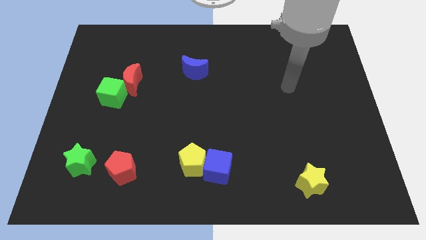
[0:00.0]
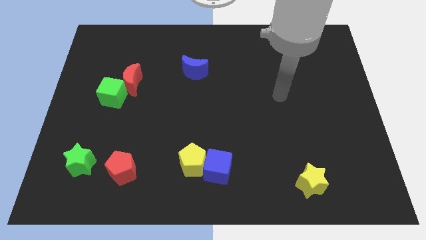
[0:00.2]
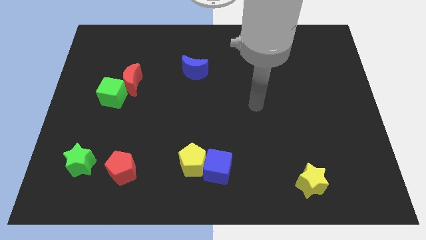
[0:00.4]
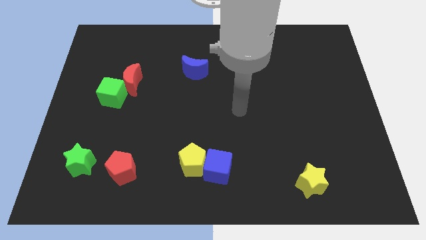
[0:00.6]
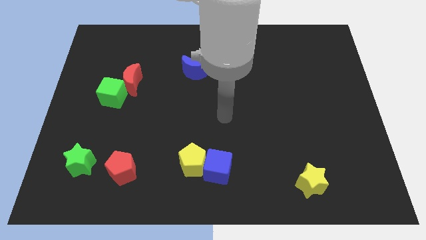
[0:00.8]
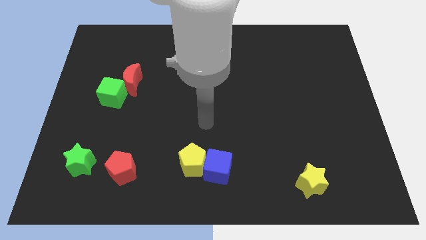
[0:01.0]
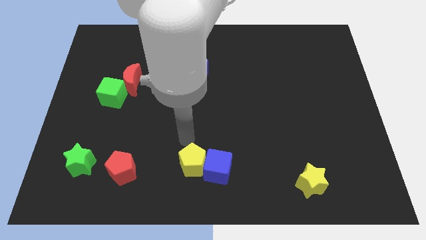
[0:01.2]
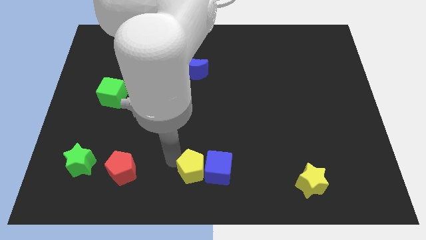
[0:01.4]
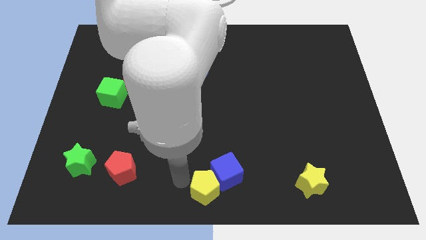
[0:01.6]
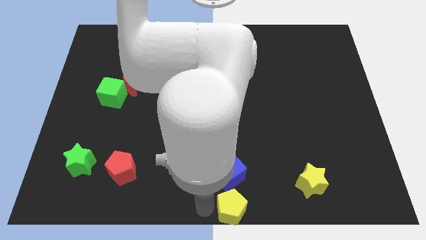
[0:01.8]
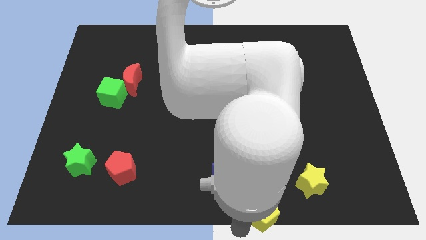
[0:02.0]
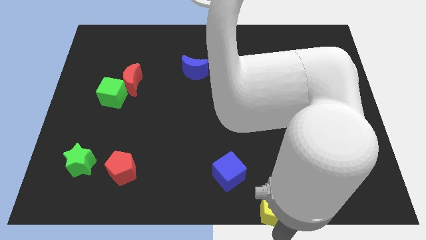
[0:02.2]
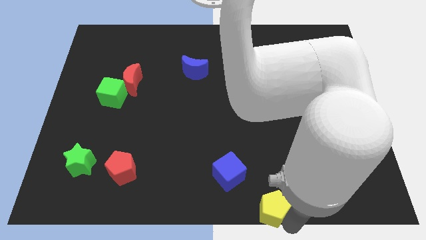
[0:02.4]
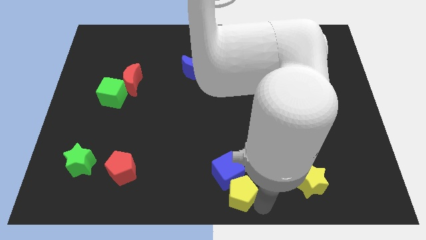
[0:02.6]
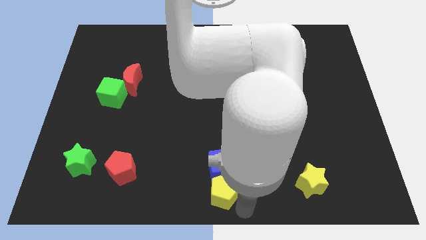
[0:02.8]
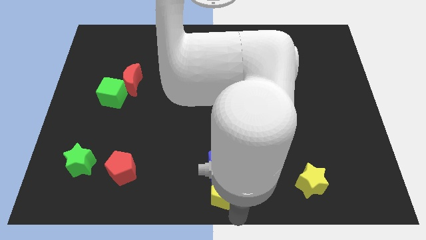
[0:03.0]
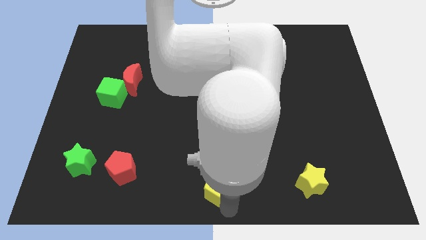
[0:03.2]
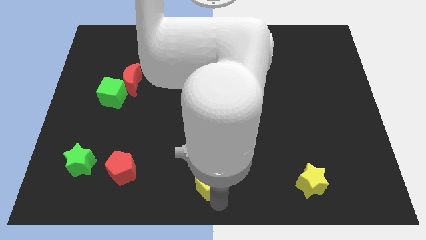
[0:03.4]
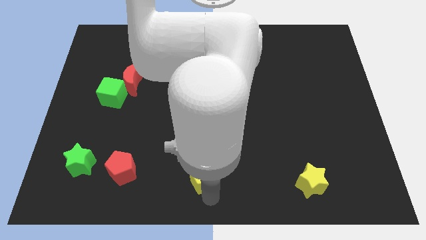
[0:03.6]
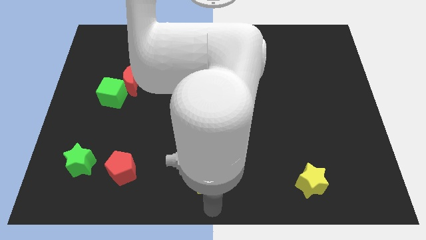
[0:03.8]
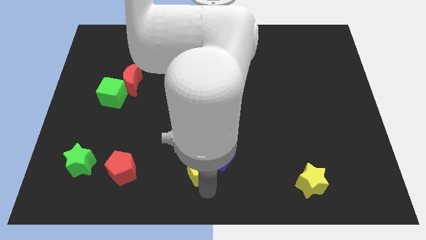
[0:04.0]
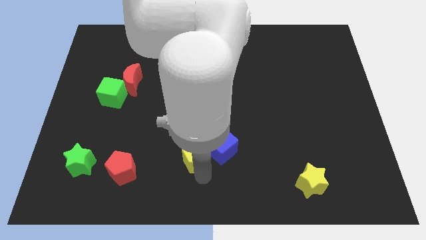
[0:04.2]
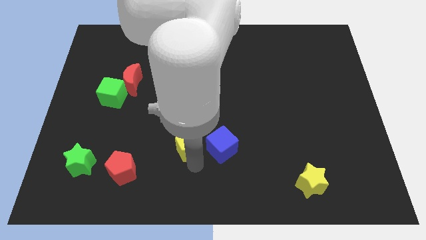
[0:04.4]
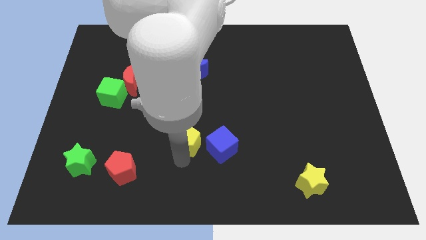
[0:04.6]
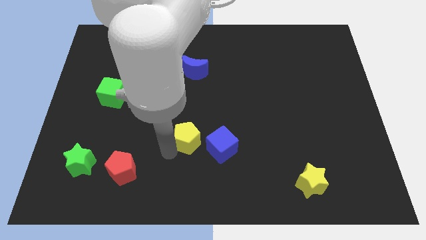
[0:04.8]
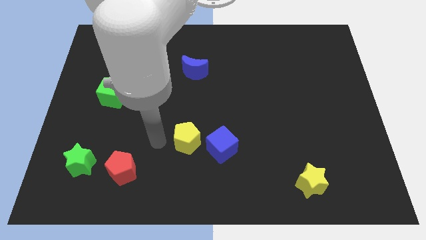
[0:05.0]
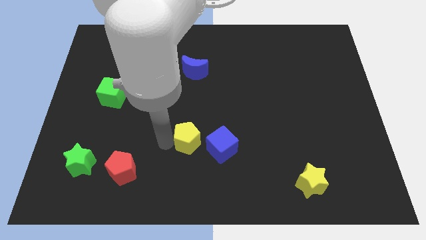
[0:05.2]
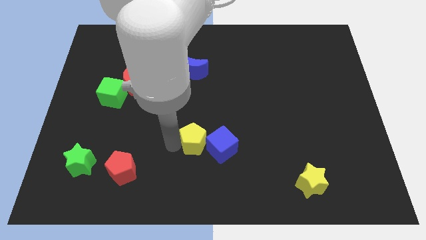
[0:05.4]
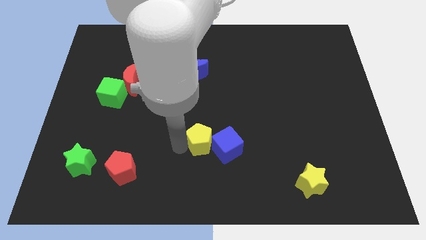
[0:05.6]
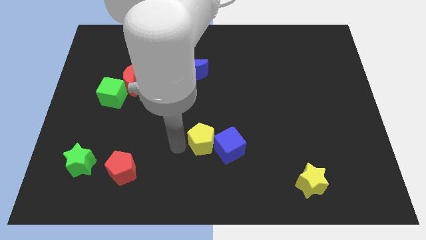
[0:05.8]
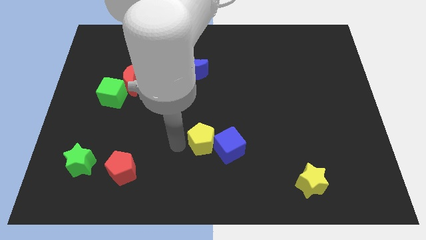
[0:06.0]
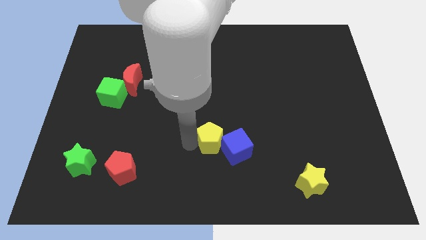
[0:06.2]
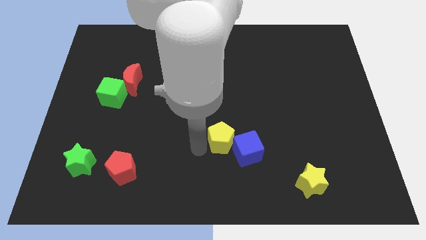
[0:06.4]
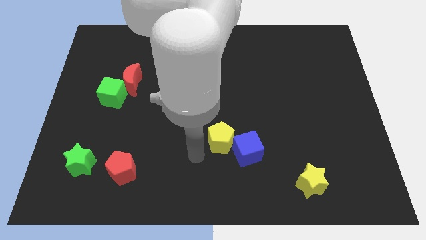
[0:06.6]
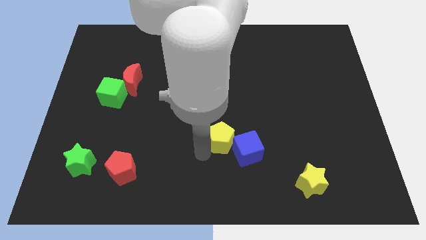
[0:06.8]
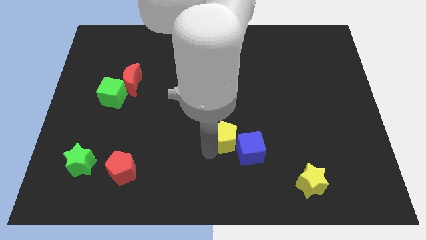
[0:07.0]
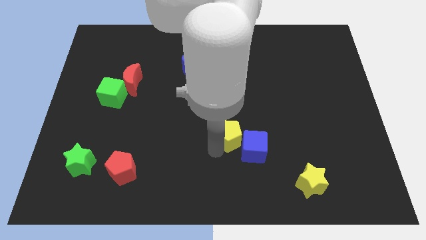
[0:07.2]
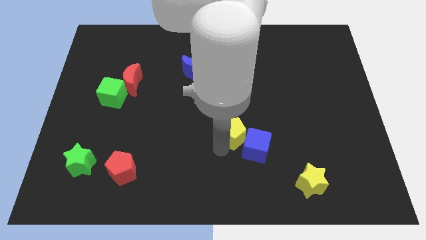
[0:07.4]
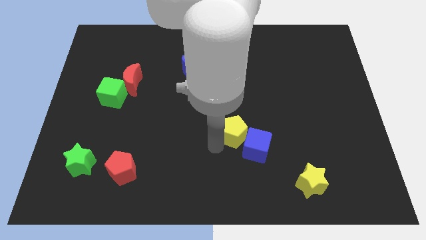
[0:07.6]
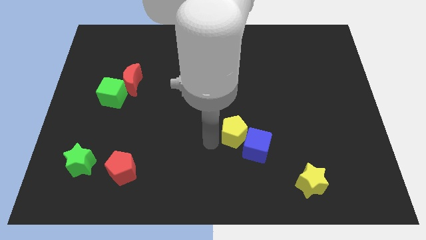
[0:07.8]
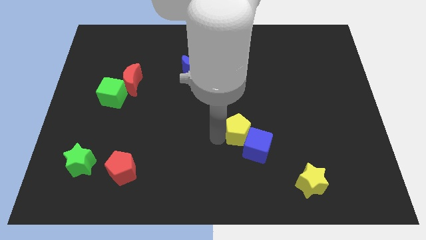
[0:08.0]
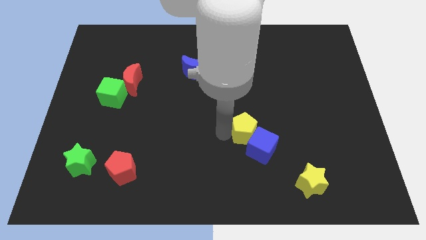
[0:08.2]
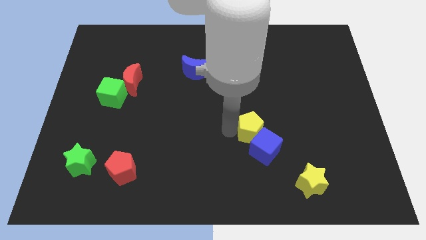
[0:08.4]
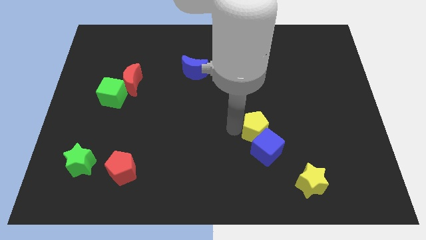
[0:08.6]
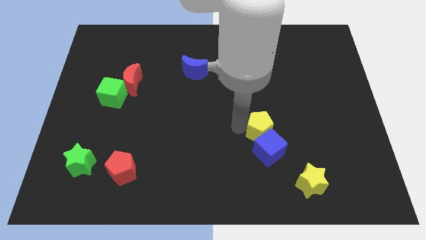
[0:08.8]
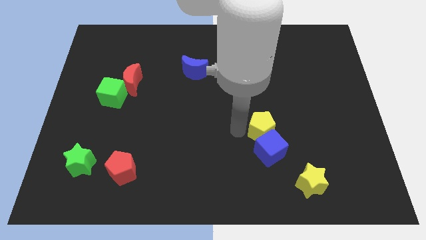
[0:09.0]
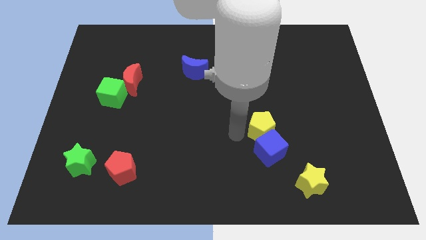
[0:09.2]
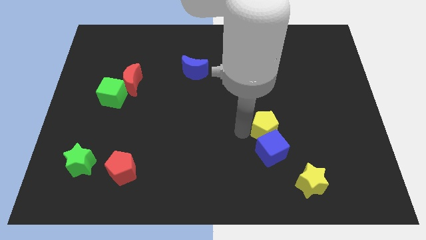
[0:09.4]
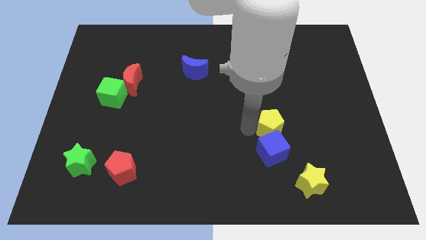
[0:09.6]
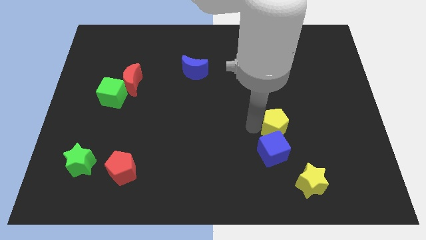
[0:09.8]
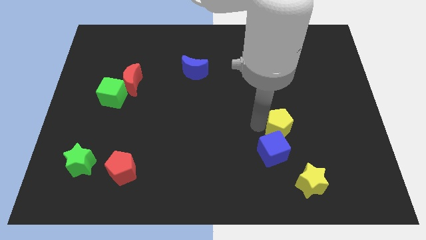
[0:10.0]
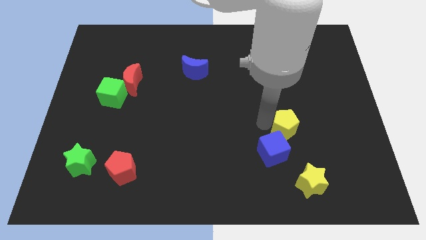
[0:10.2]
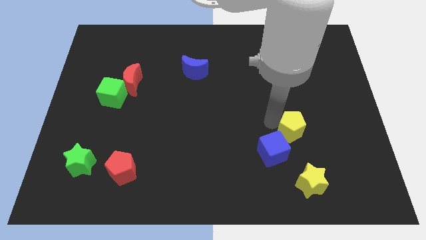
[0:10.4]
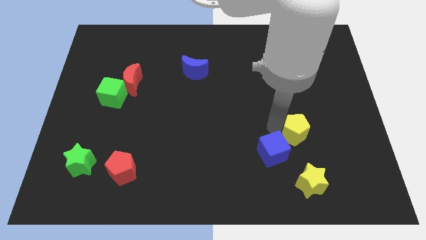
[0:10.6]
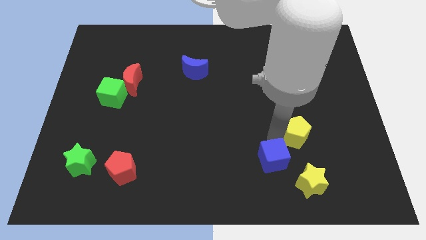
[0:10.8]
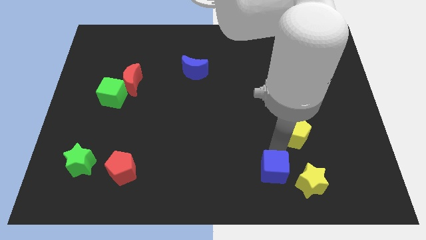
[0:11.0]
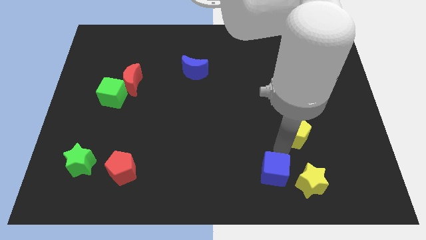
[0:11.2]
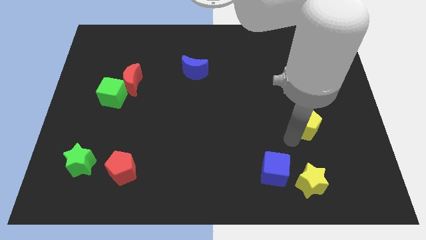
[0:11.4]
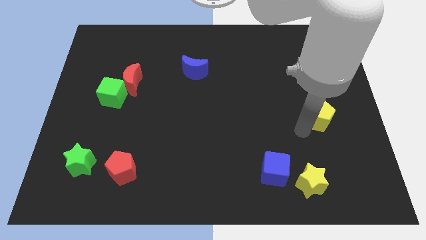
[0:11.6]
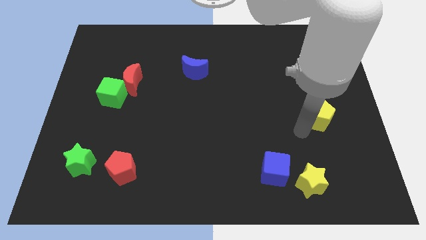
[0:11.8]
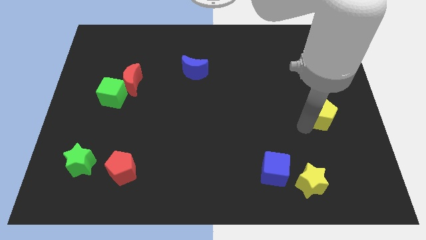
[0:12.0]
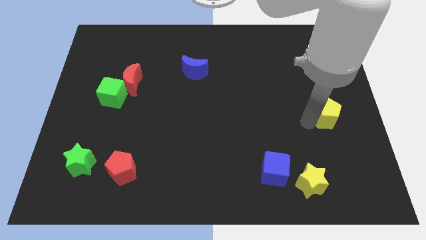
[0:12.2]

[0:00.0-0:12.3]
push the yellow pentagon to the center right

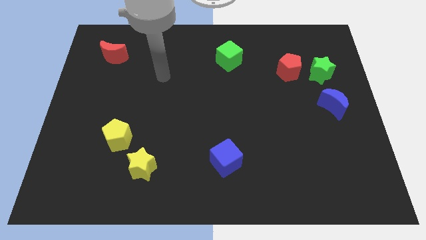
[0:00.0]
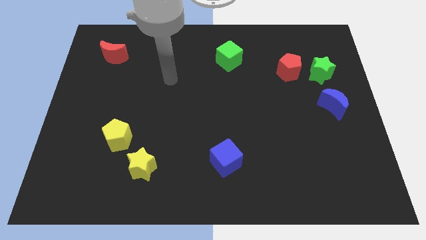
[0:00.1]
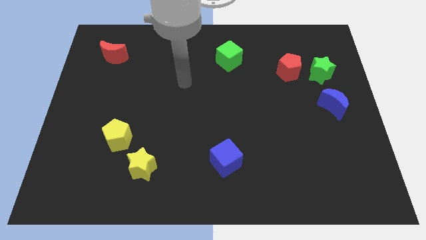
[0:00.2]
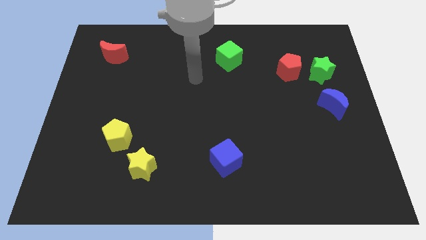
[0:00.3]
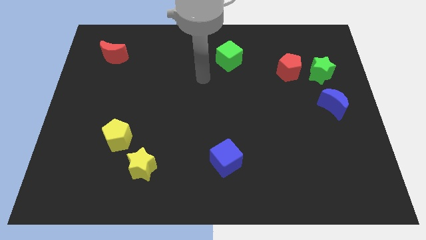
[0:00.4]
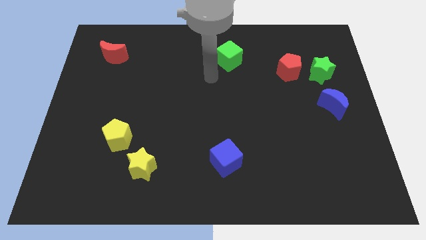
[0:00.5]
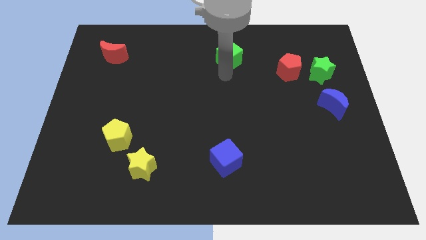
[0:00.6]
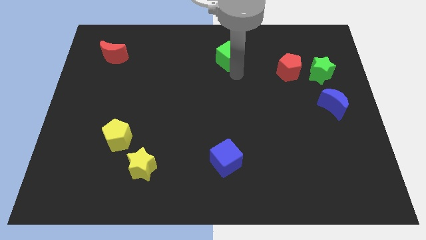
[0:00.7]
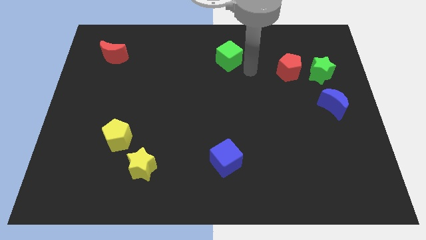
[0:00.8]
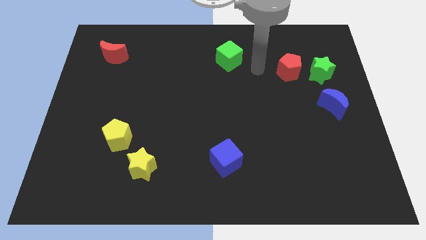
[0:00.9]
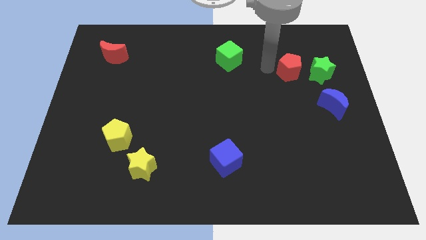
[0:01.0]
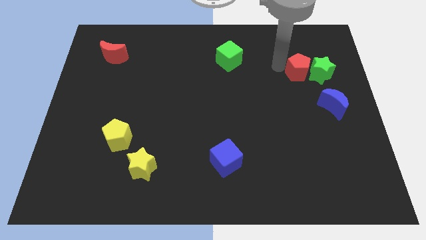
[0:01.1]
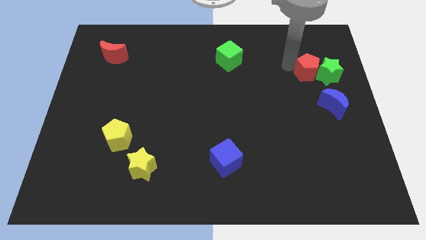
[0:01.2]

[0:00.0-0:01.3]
move the green star to the right side of the board
